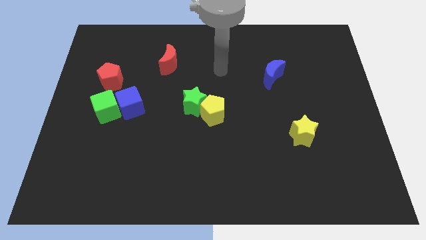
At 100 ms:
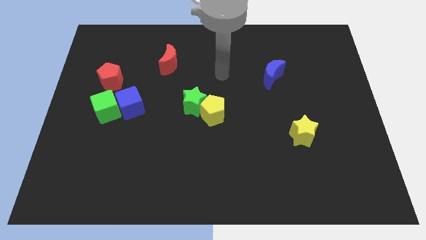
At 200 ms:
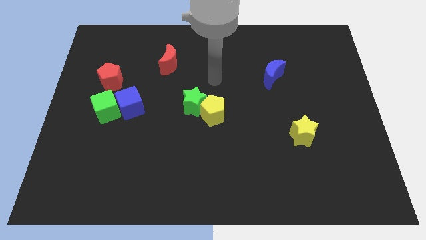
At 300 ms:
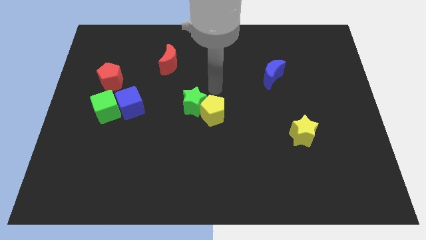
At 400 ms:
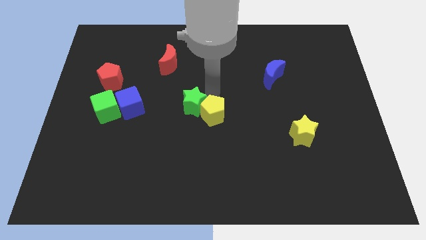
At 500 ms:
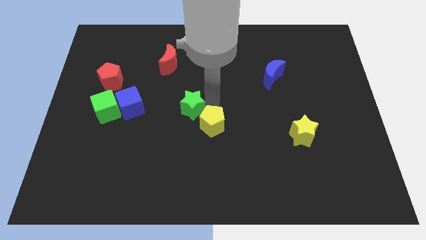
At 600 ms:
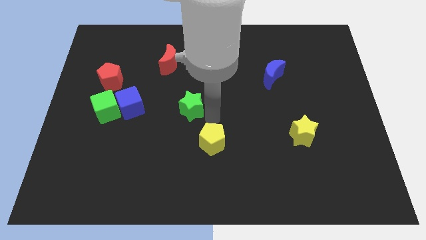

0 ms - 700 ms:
separate the green star from the yellow pentagon

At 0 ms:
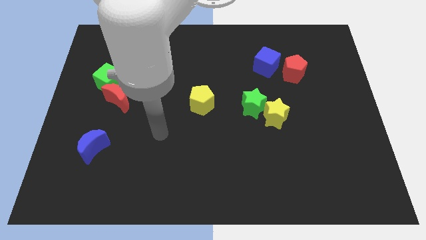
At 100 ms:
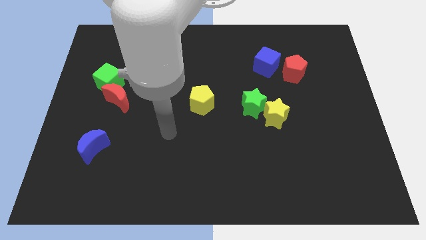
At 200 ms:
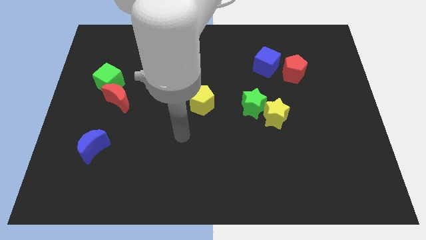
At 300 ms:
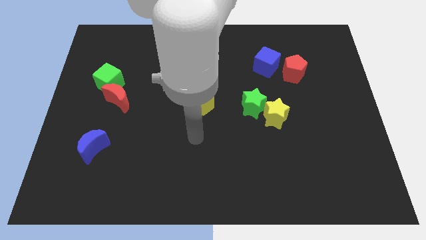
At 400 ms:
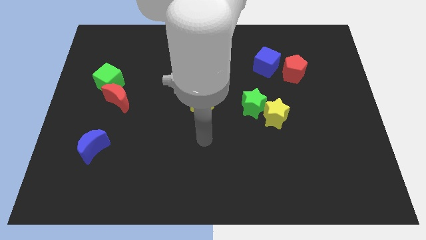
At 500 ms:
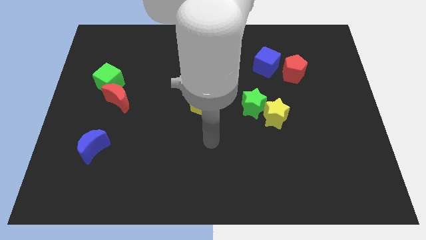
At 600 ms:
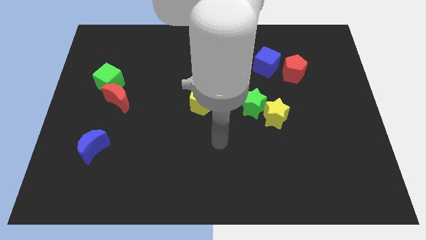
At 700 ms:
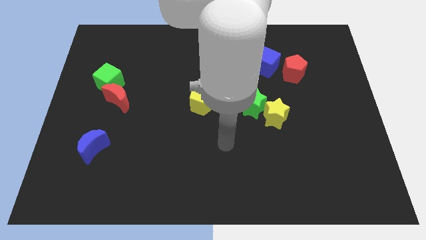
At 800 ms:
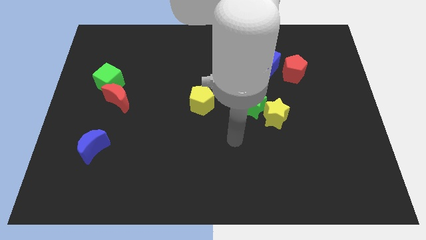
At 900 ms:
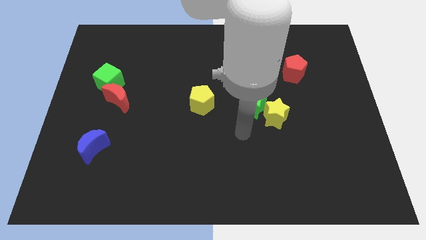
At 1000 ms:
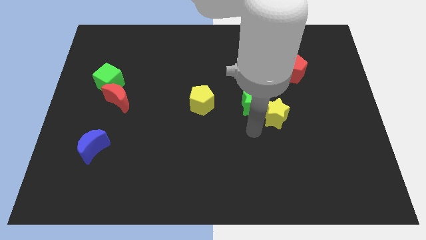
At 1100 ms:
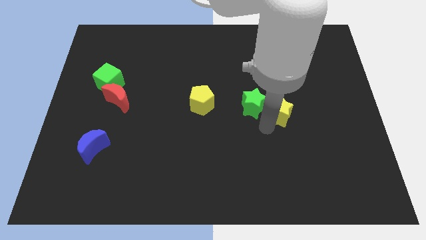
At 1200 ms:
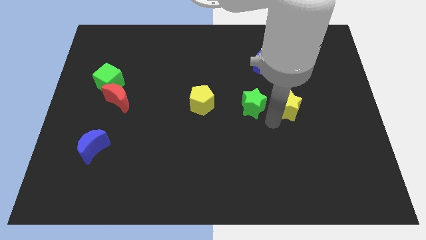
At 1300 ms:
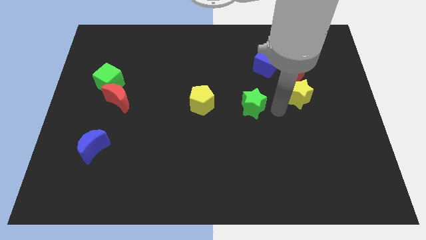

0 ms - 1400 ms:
separate the green star from the yellow star

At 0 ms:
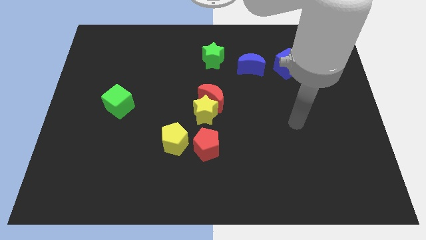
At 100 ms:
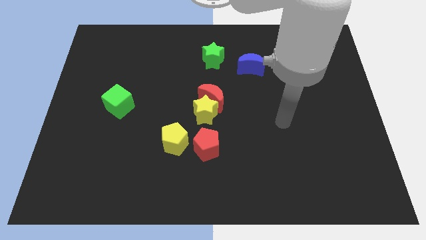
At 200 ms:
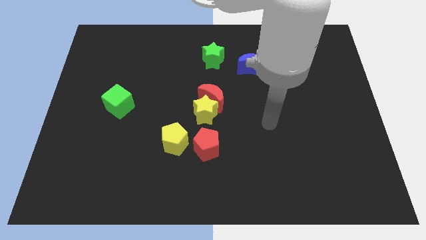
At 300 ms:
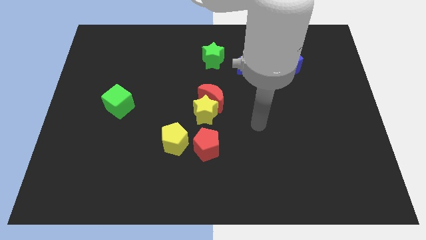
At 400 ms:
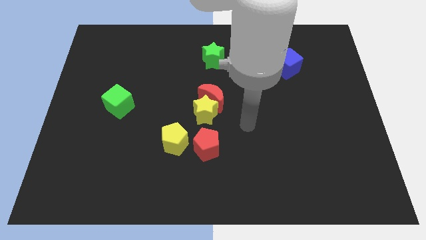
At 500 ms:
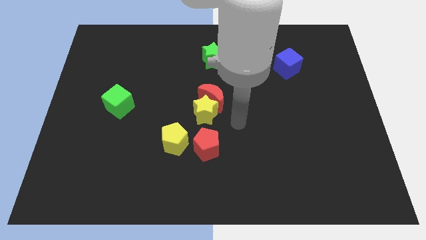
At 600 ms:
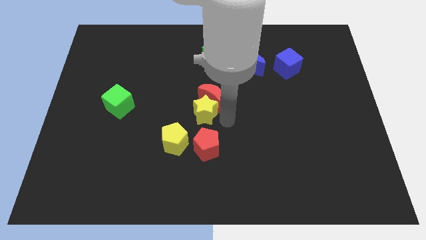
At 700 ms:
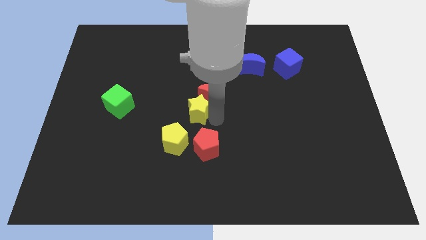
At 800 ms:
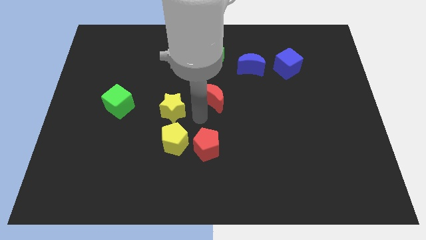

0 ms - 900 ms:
pull the red moon apart from the yellow star

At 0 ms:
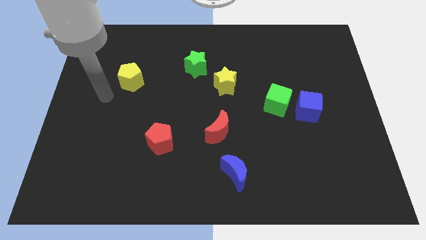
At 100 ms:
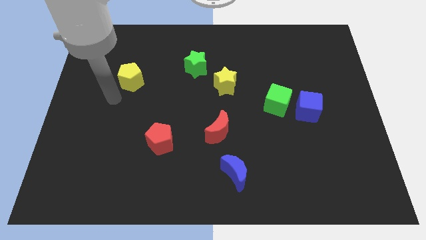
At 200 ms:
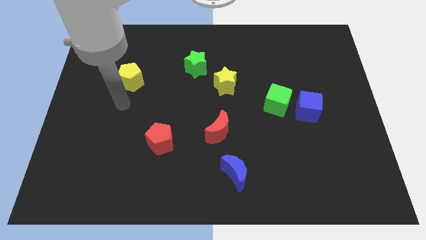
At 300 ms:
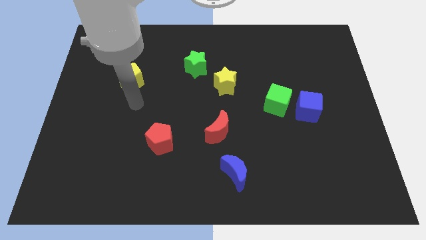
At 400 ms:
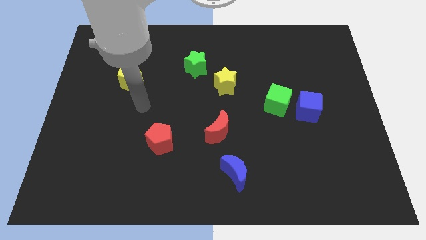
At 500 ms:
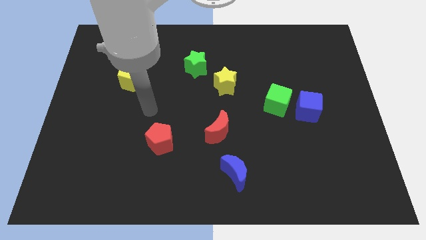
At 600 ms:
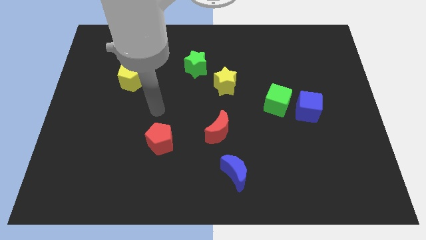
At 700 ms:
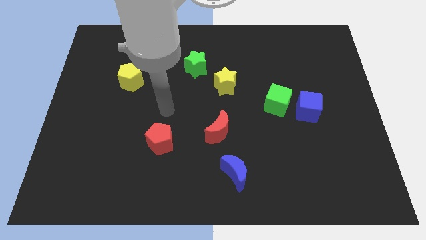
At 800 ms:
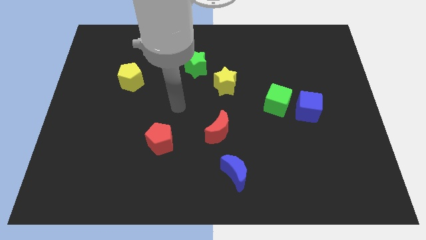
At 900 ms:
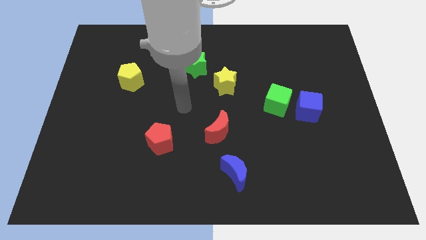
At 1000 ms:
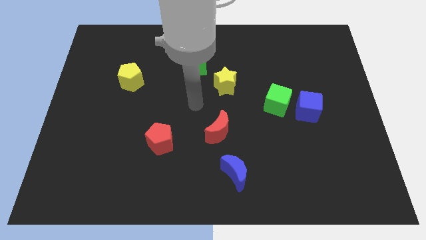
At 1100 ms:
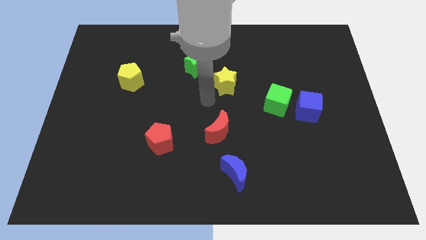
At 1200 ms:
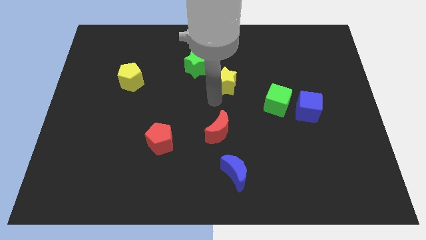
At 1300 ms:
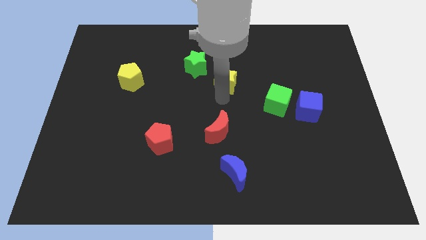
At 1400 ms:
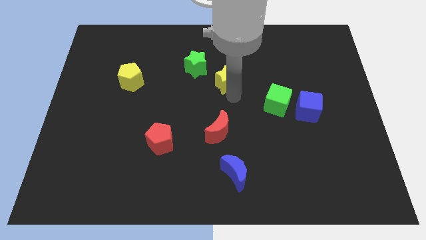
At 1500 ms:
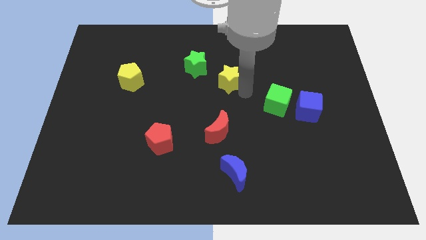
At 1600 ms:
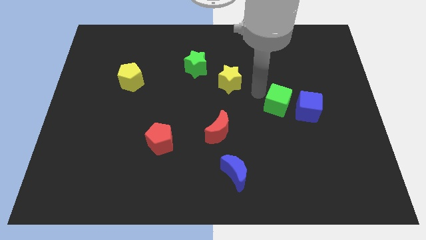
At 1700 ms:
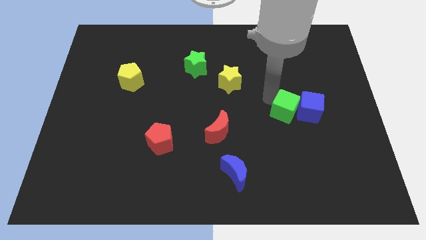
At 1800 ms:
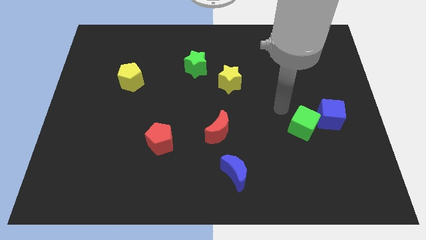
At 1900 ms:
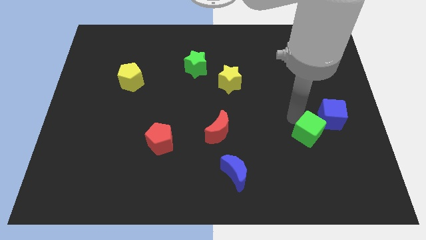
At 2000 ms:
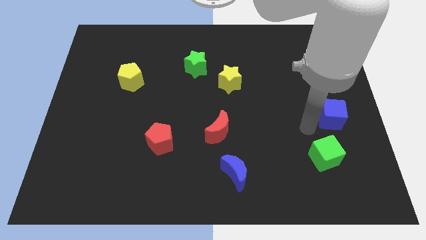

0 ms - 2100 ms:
move the blue cube away from the green cube

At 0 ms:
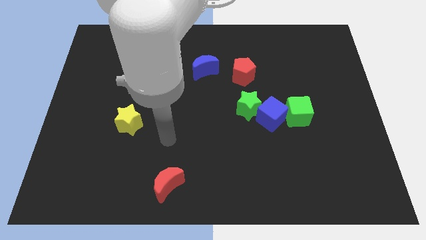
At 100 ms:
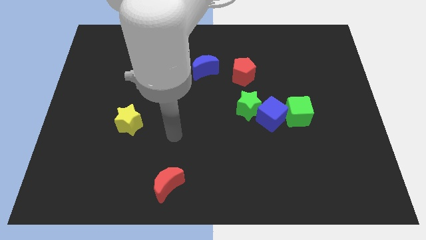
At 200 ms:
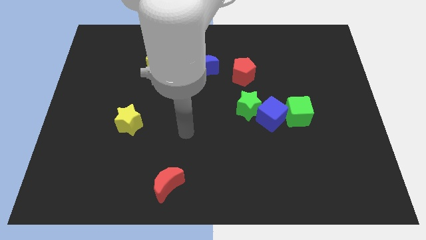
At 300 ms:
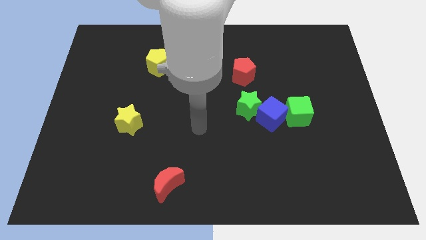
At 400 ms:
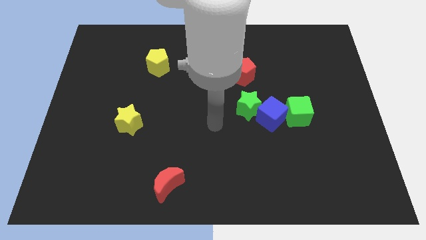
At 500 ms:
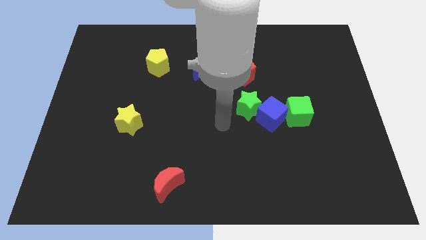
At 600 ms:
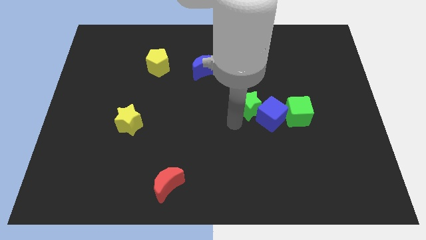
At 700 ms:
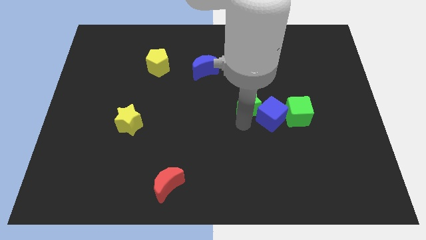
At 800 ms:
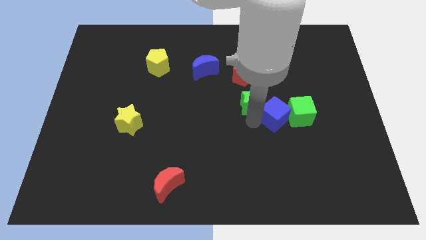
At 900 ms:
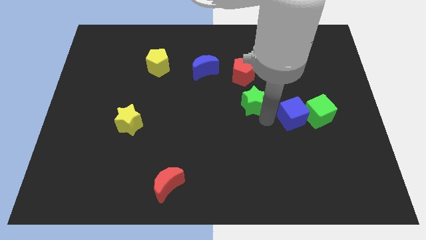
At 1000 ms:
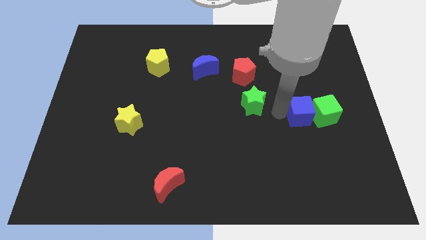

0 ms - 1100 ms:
pull the green star apart from the blue cube

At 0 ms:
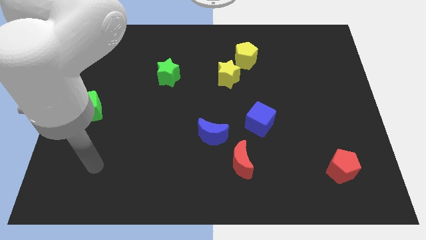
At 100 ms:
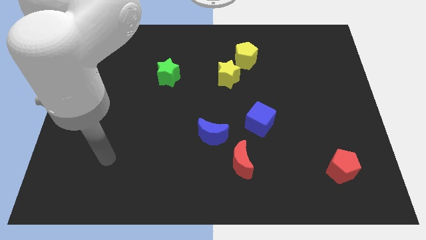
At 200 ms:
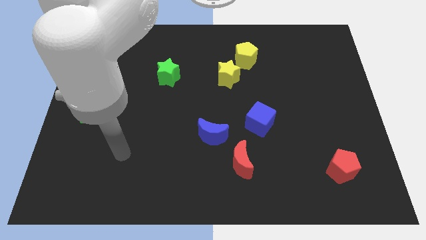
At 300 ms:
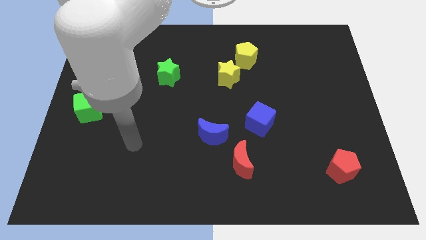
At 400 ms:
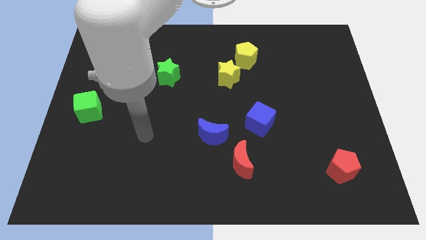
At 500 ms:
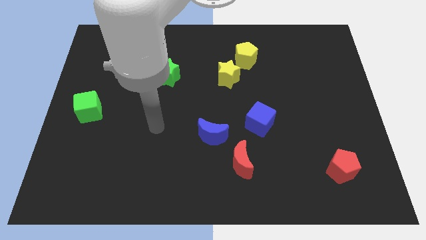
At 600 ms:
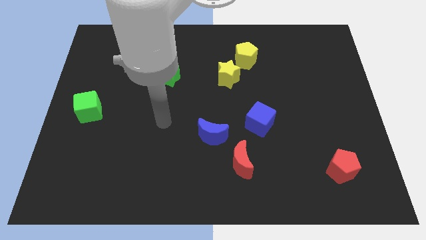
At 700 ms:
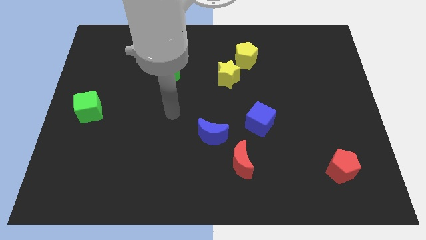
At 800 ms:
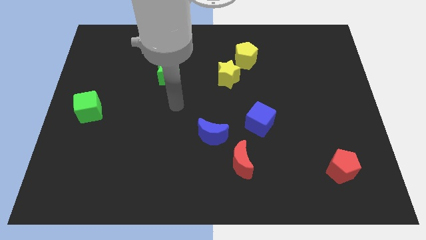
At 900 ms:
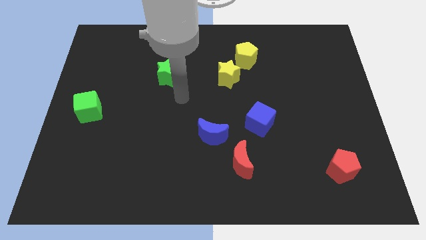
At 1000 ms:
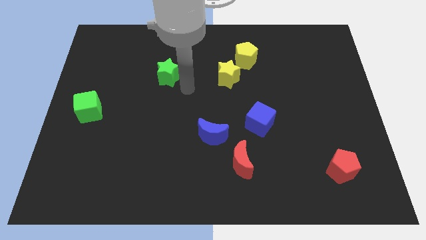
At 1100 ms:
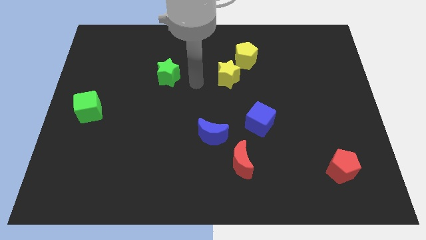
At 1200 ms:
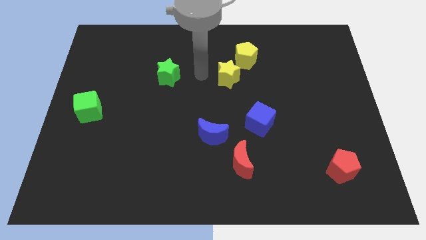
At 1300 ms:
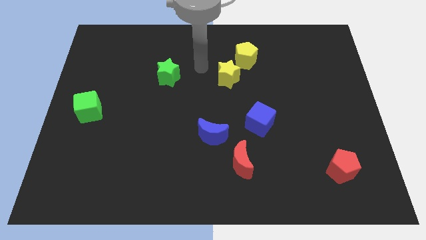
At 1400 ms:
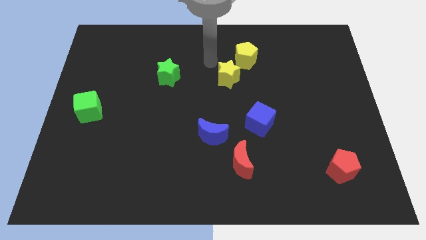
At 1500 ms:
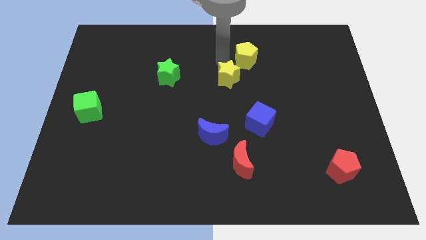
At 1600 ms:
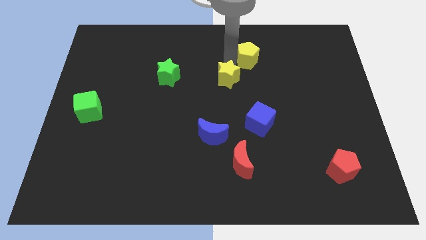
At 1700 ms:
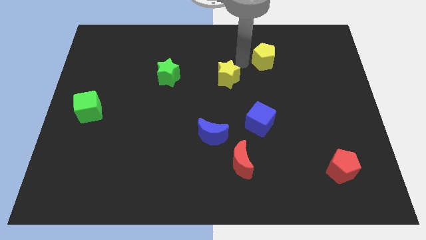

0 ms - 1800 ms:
pull the yellow star apart from the yellow pentagon

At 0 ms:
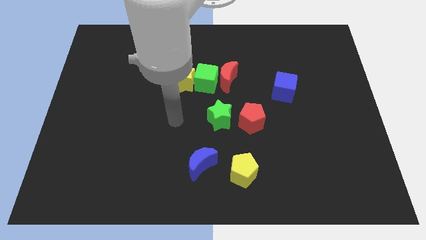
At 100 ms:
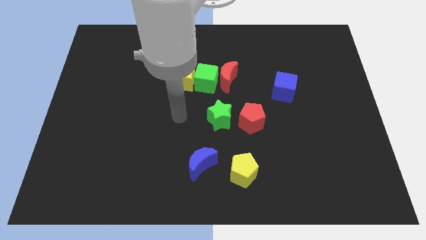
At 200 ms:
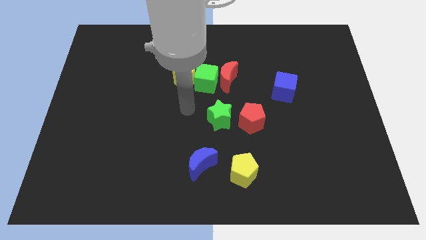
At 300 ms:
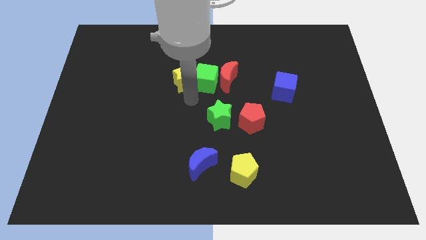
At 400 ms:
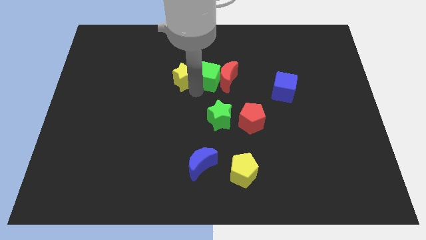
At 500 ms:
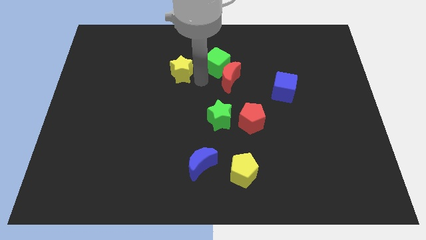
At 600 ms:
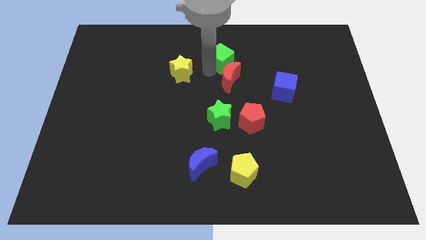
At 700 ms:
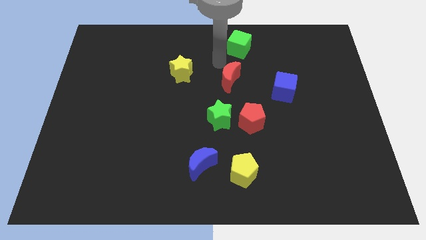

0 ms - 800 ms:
pull the red moon apart from the green cube

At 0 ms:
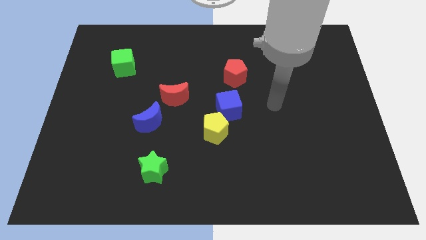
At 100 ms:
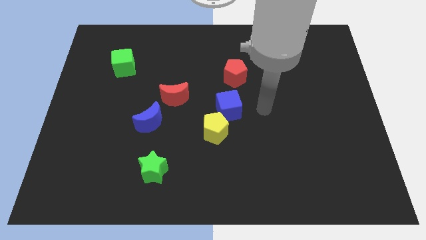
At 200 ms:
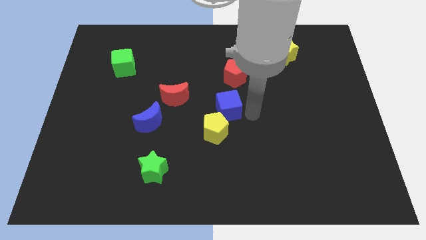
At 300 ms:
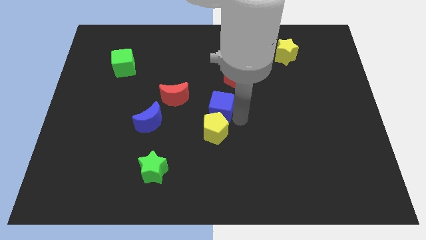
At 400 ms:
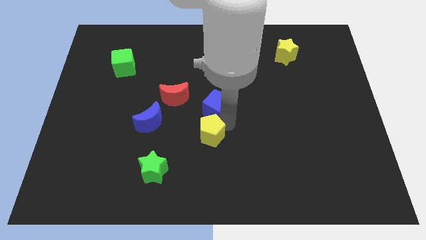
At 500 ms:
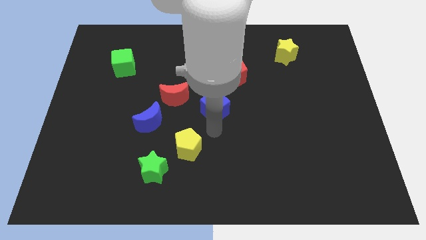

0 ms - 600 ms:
separate the blue cube from the yellow pentagon
